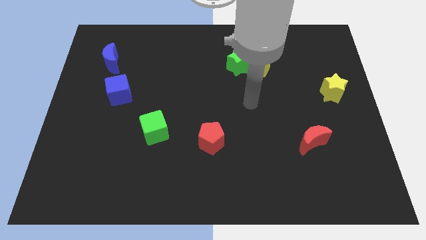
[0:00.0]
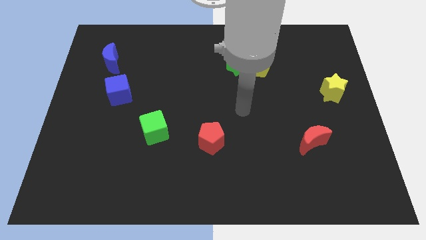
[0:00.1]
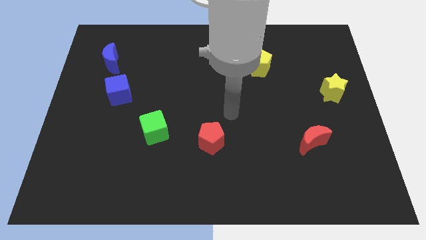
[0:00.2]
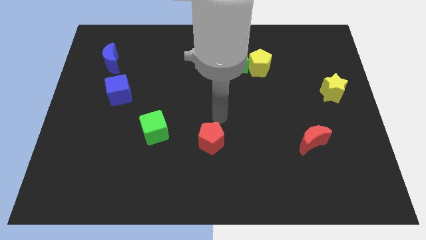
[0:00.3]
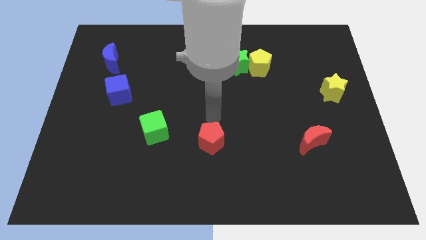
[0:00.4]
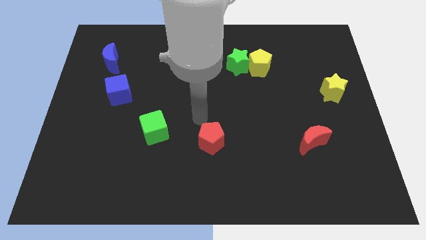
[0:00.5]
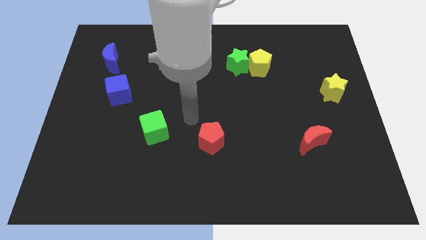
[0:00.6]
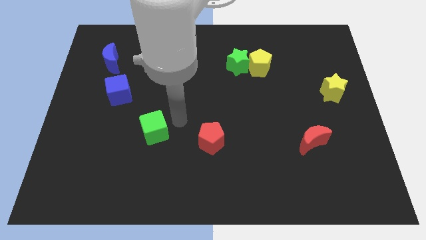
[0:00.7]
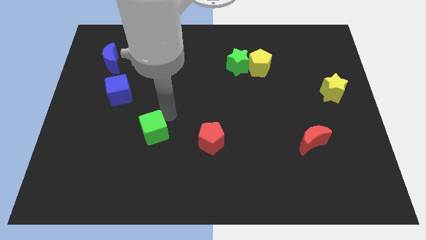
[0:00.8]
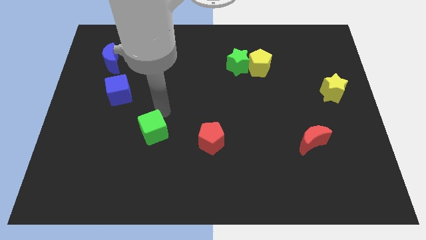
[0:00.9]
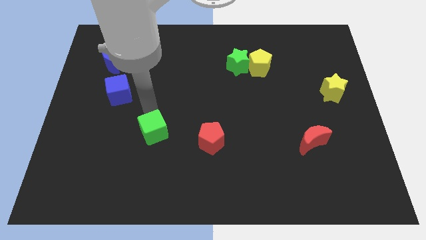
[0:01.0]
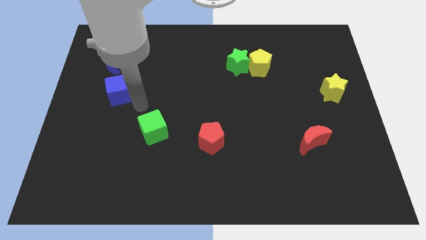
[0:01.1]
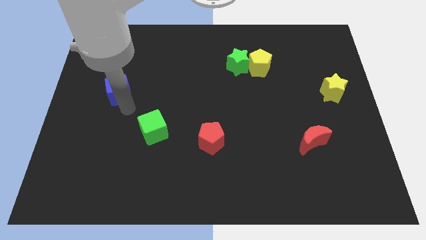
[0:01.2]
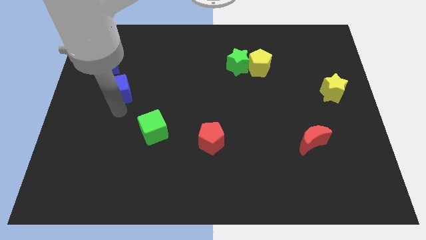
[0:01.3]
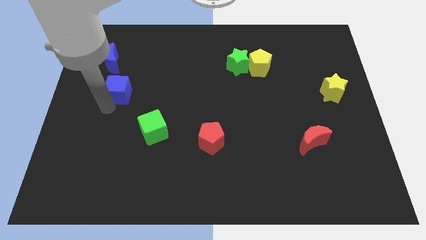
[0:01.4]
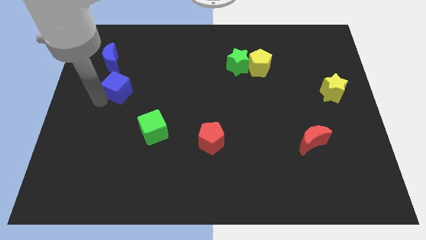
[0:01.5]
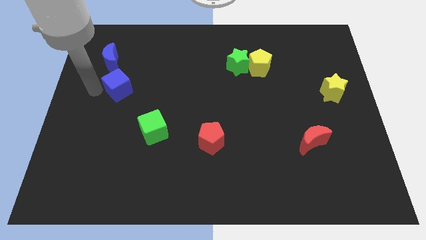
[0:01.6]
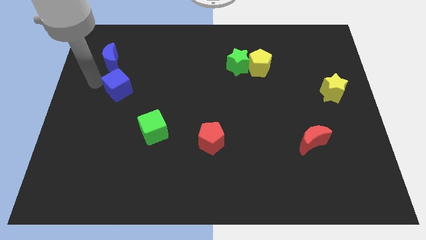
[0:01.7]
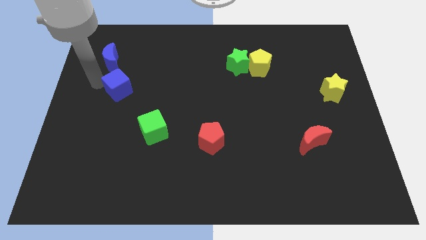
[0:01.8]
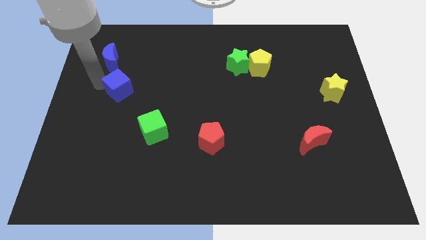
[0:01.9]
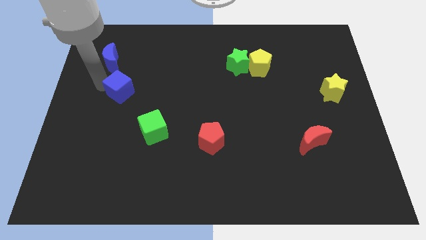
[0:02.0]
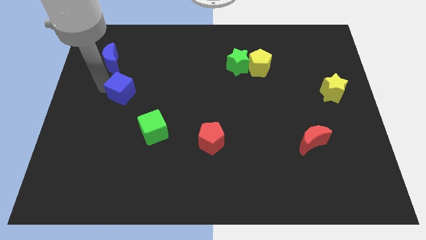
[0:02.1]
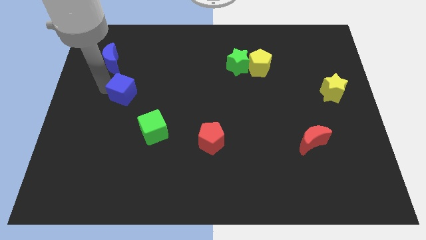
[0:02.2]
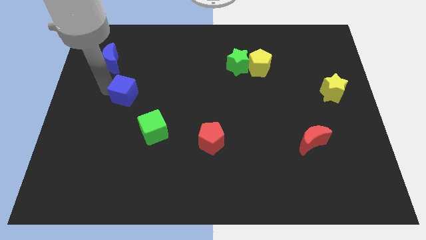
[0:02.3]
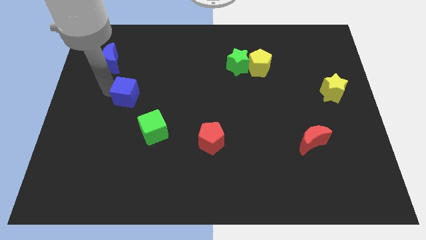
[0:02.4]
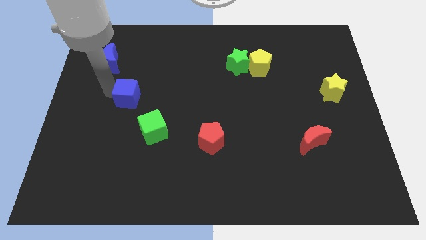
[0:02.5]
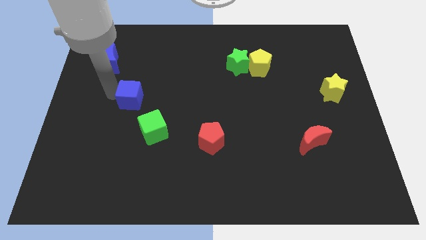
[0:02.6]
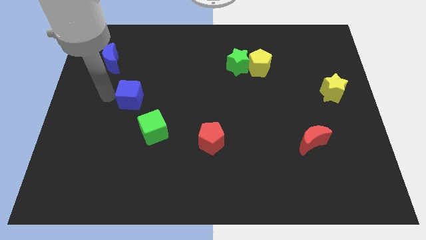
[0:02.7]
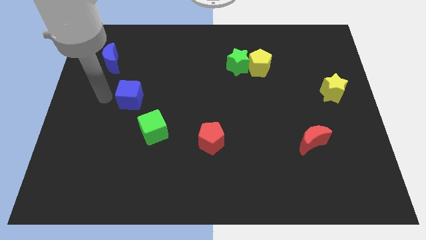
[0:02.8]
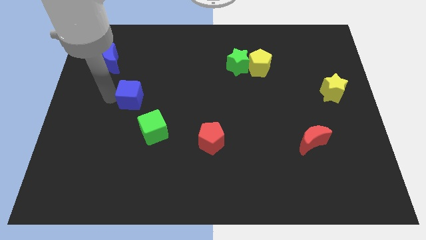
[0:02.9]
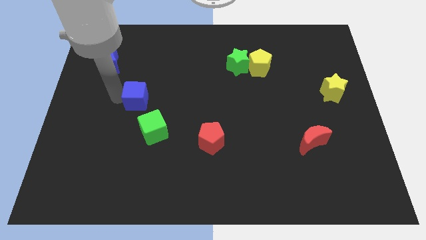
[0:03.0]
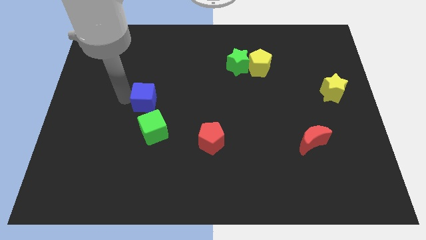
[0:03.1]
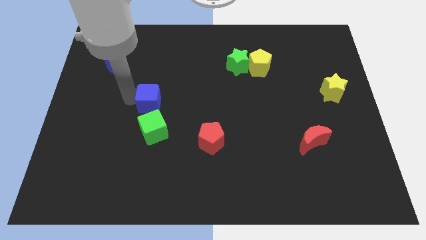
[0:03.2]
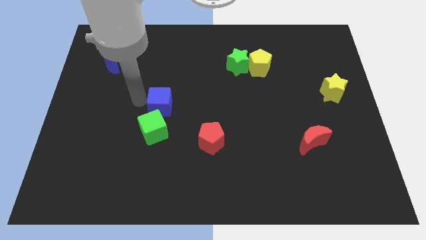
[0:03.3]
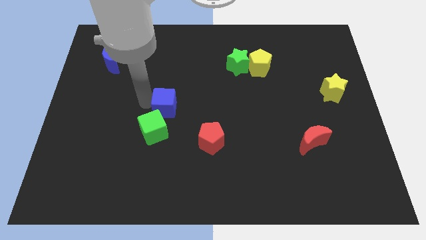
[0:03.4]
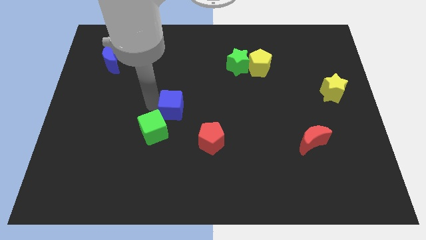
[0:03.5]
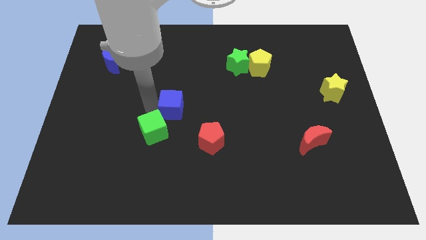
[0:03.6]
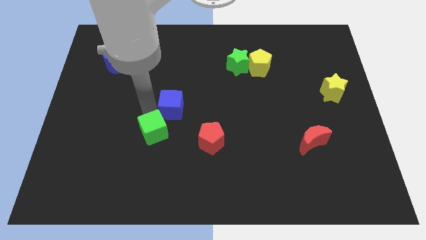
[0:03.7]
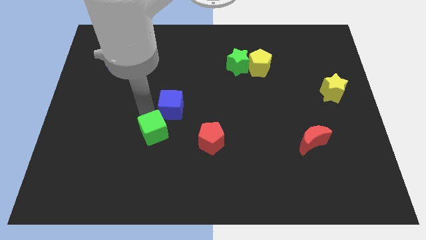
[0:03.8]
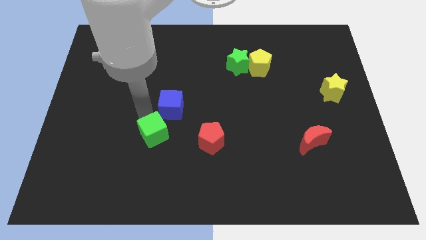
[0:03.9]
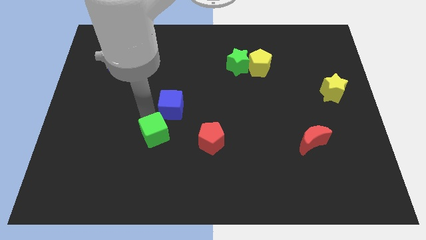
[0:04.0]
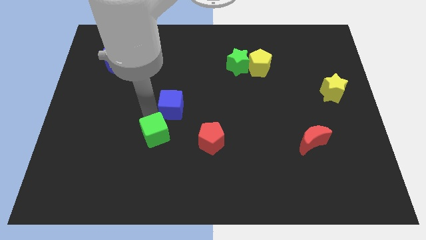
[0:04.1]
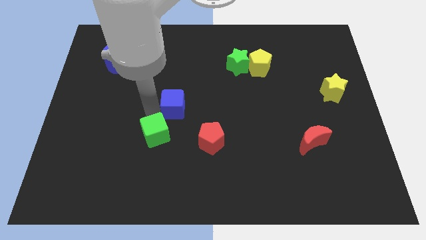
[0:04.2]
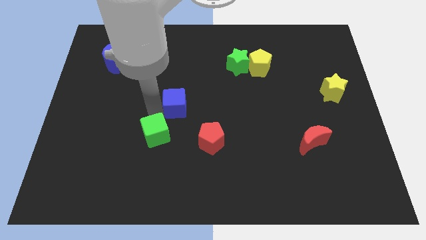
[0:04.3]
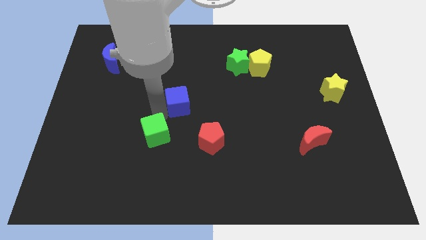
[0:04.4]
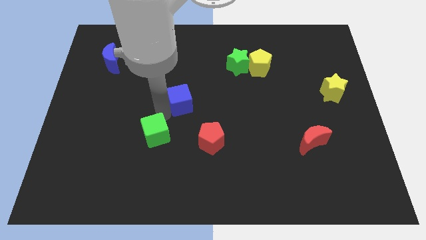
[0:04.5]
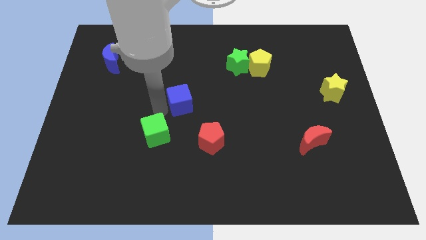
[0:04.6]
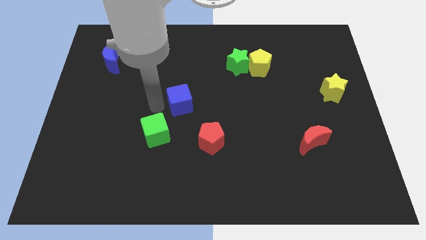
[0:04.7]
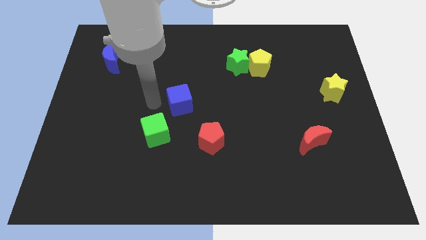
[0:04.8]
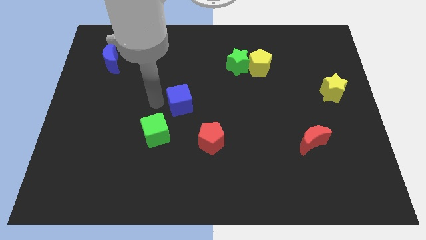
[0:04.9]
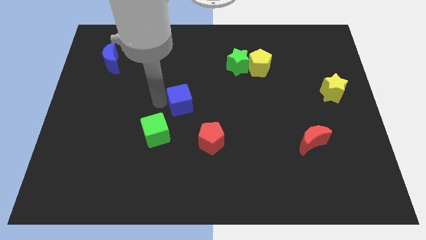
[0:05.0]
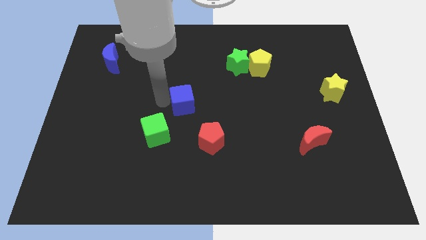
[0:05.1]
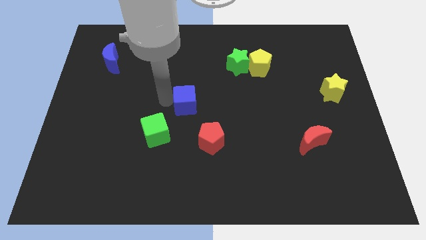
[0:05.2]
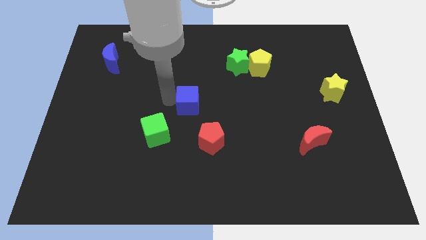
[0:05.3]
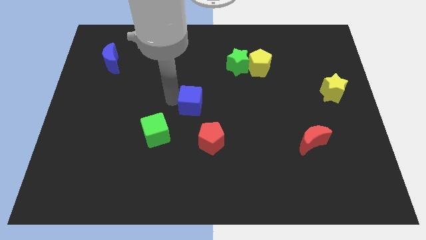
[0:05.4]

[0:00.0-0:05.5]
slide the blue cube above the red pentagon

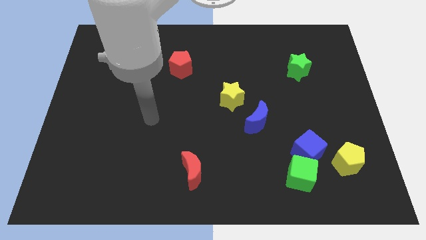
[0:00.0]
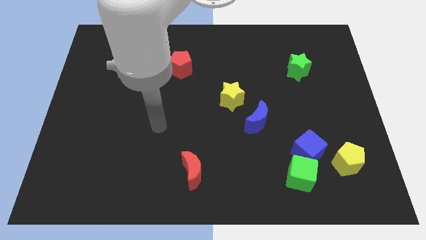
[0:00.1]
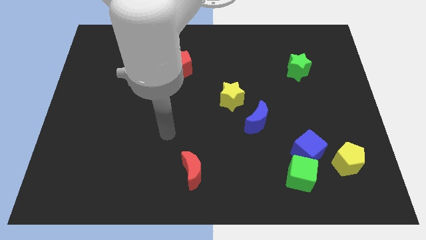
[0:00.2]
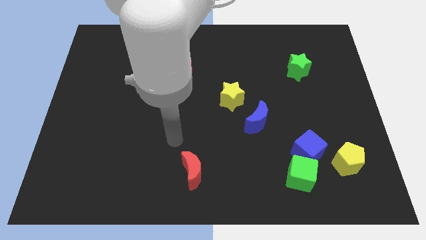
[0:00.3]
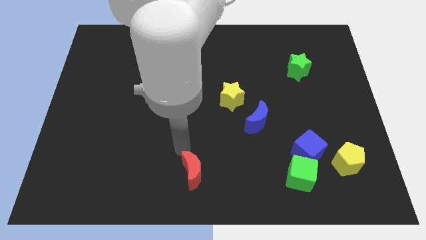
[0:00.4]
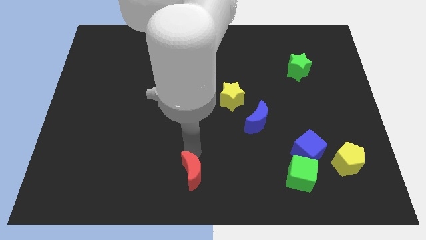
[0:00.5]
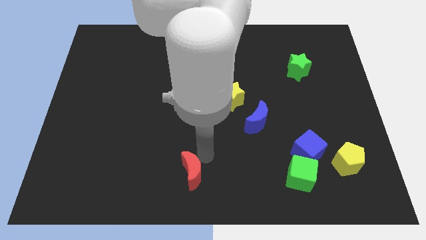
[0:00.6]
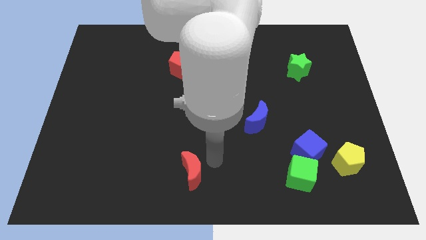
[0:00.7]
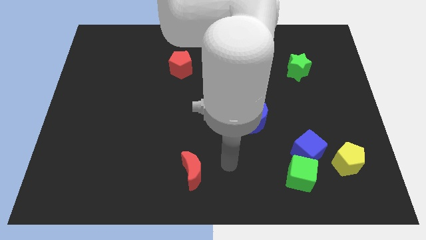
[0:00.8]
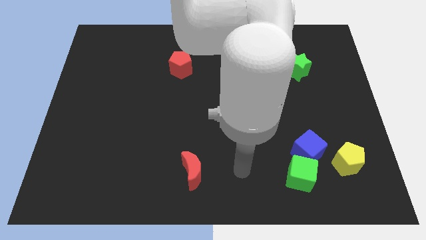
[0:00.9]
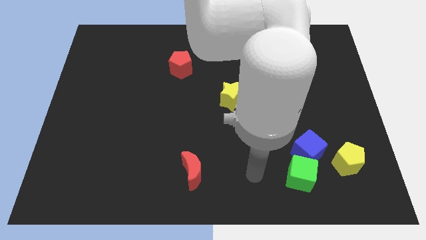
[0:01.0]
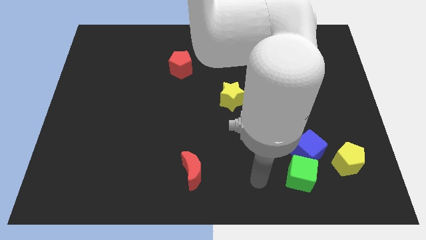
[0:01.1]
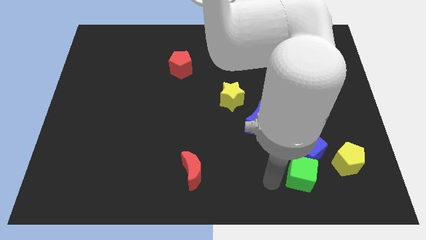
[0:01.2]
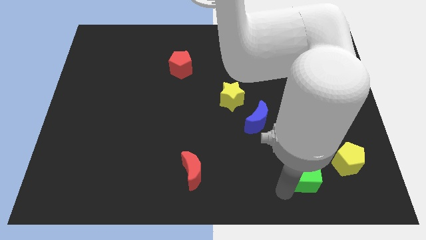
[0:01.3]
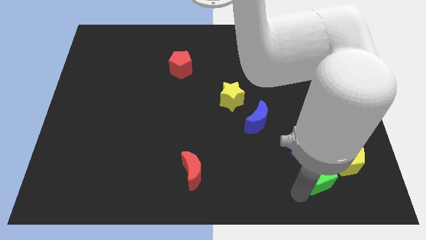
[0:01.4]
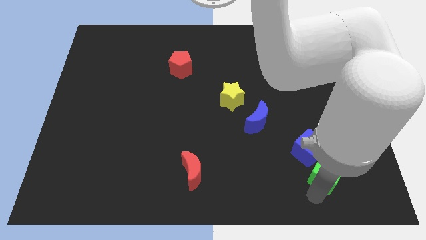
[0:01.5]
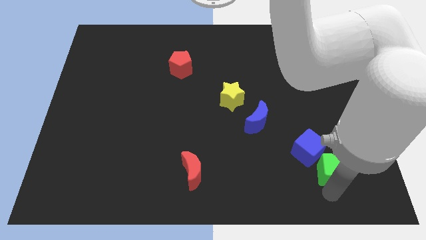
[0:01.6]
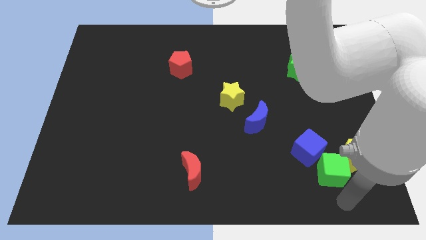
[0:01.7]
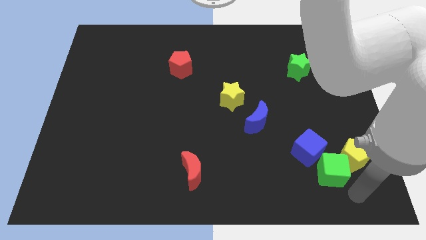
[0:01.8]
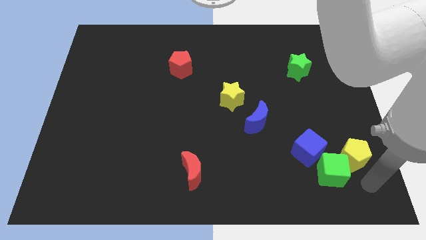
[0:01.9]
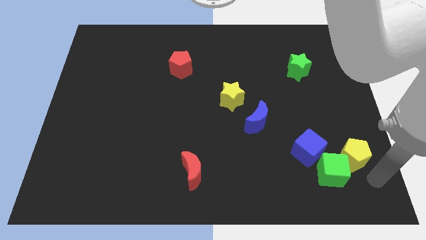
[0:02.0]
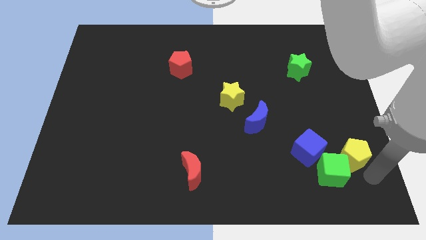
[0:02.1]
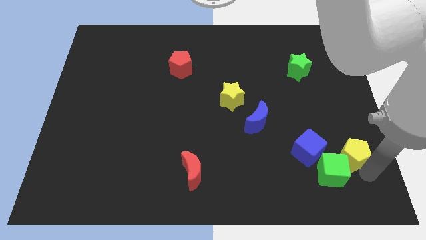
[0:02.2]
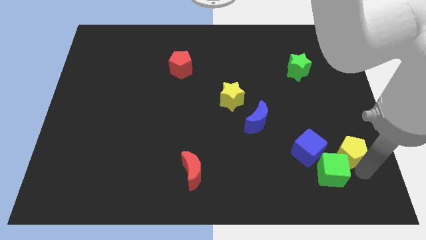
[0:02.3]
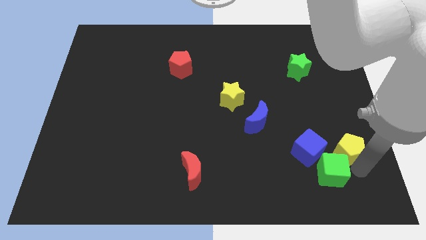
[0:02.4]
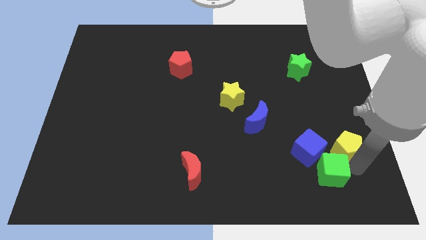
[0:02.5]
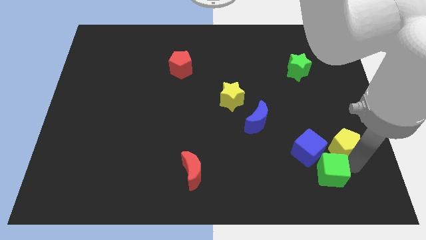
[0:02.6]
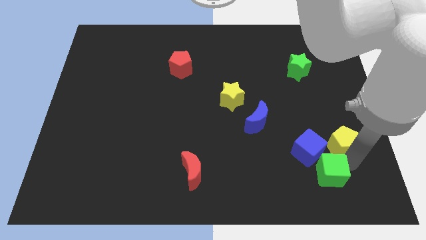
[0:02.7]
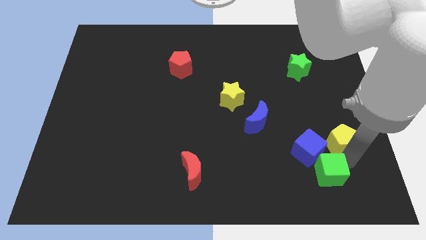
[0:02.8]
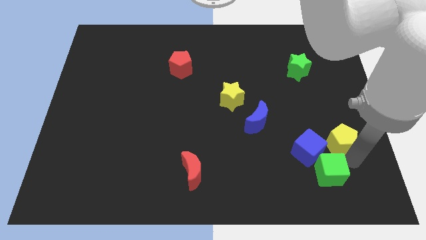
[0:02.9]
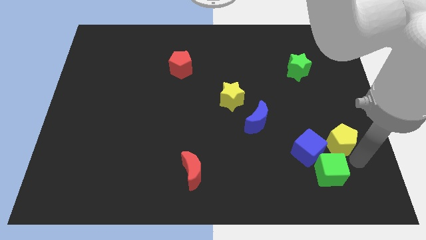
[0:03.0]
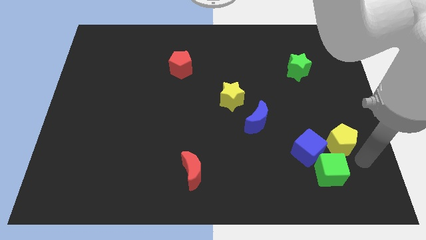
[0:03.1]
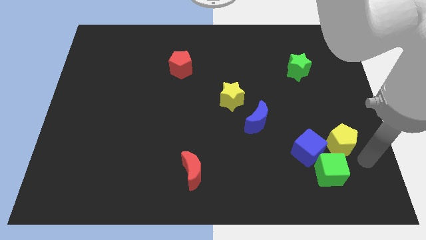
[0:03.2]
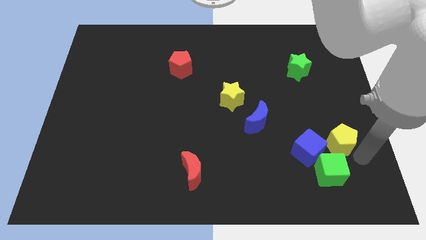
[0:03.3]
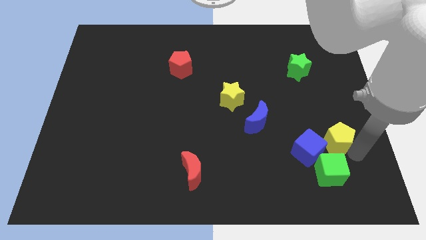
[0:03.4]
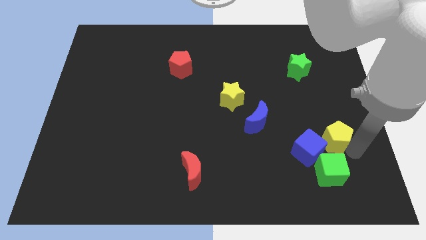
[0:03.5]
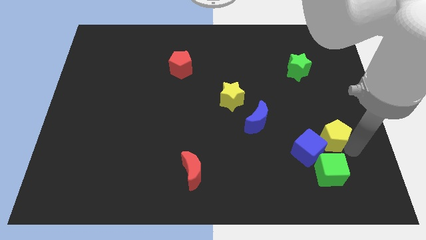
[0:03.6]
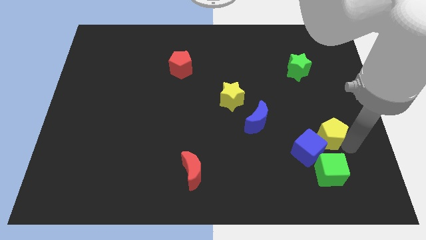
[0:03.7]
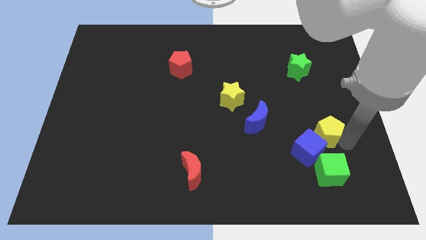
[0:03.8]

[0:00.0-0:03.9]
move the yellow pentagon above the blue cube
